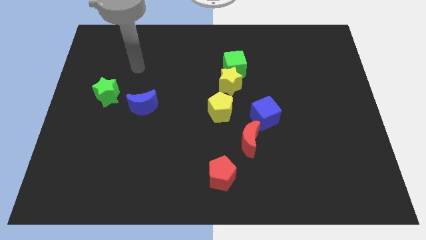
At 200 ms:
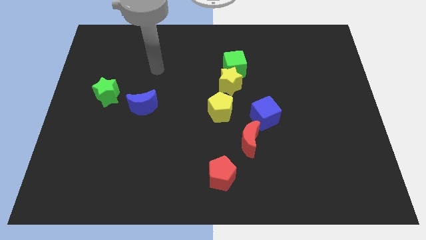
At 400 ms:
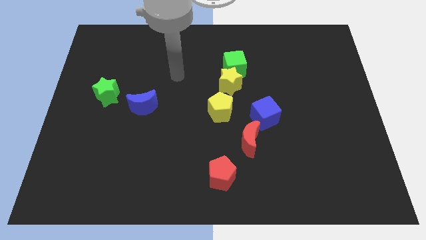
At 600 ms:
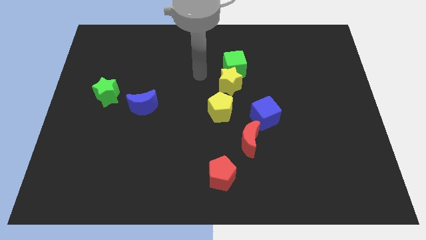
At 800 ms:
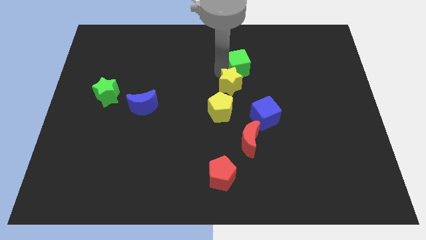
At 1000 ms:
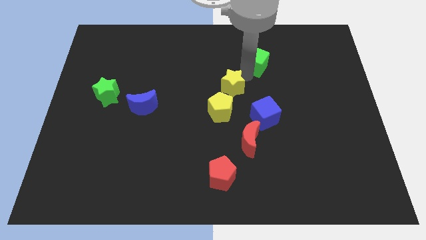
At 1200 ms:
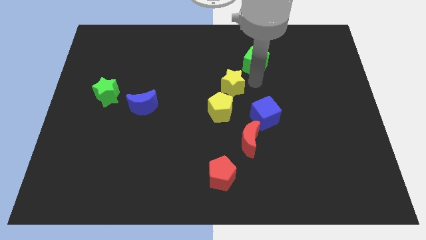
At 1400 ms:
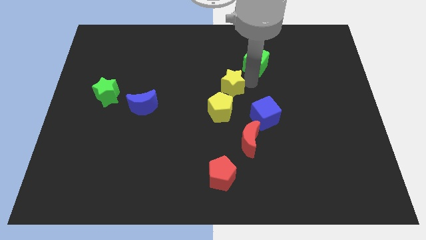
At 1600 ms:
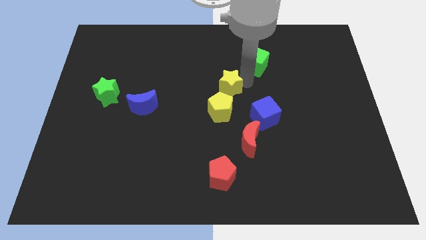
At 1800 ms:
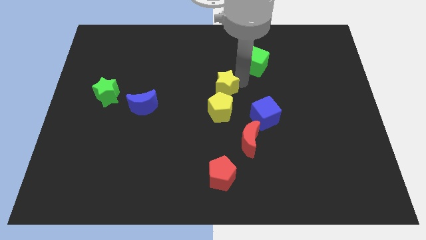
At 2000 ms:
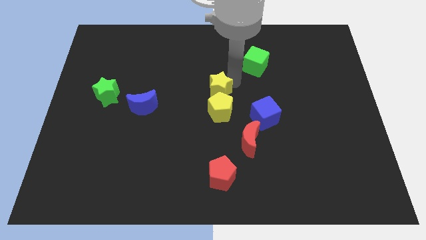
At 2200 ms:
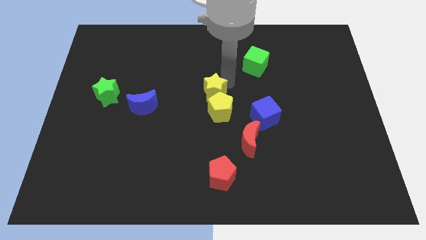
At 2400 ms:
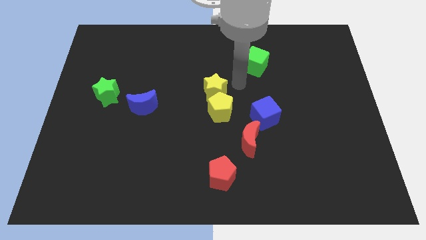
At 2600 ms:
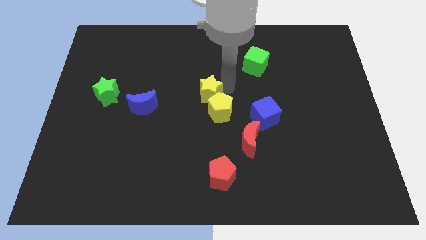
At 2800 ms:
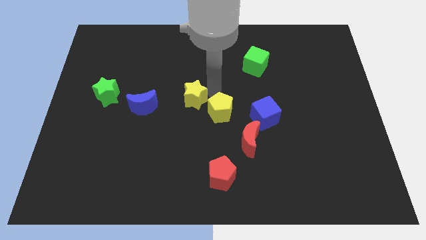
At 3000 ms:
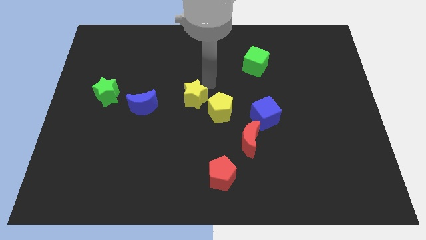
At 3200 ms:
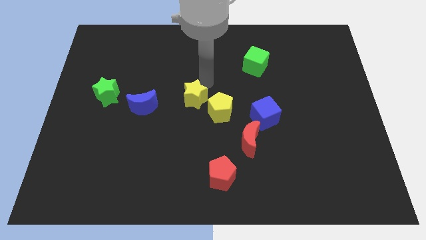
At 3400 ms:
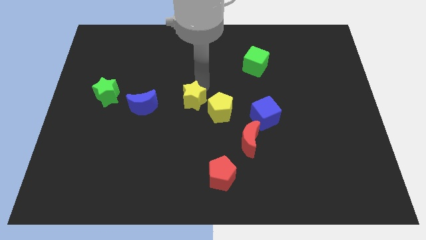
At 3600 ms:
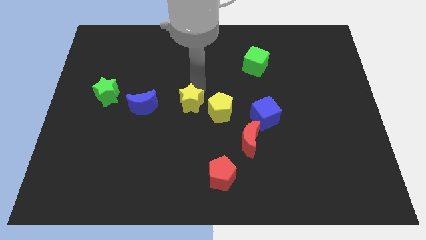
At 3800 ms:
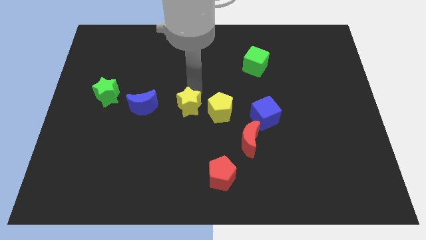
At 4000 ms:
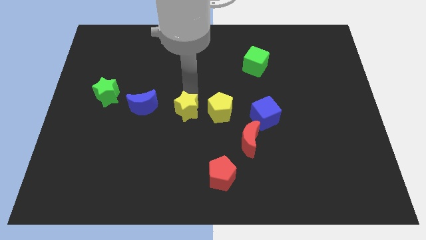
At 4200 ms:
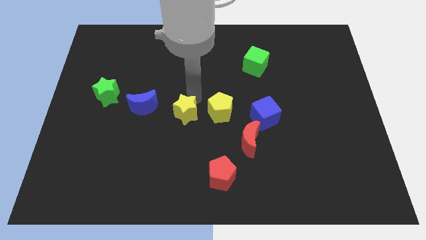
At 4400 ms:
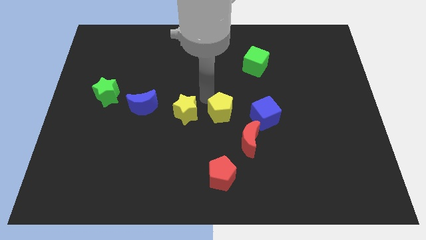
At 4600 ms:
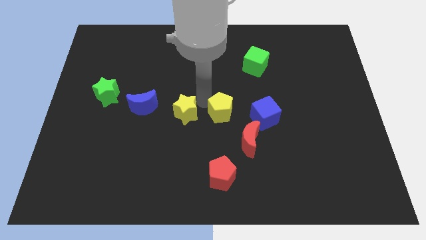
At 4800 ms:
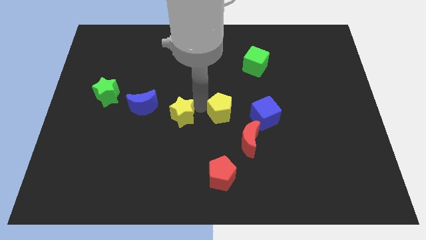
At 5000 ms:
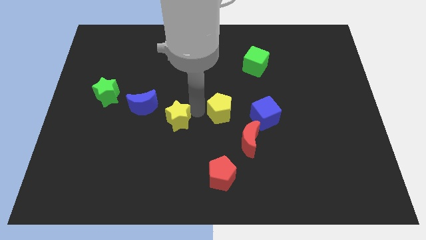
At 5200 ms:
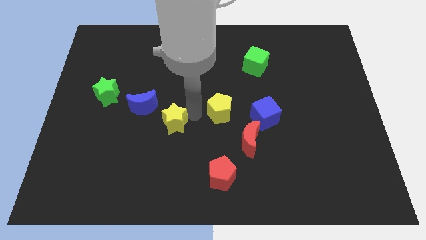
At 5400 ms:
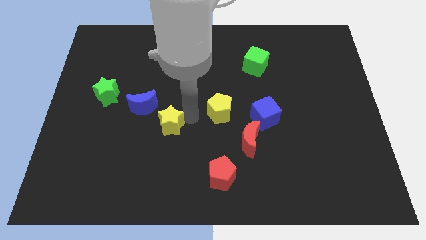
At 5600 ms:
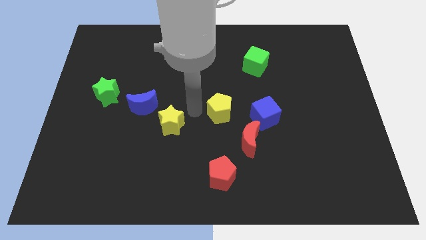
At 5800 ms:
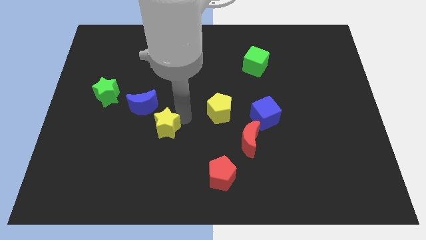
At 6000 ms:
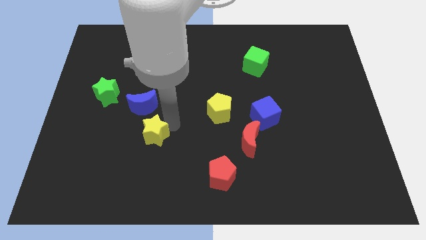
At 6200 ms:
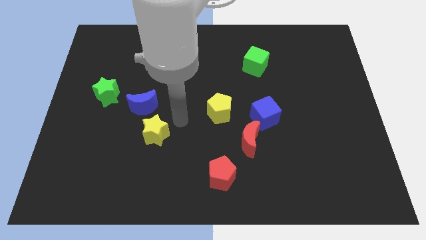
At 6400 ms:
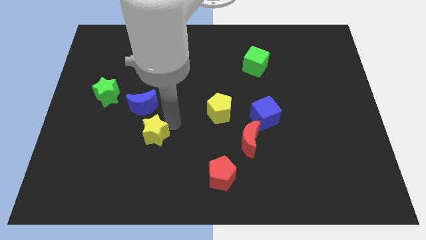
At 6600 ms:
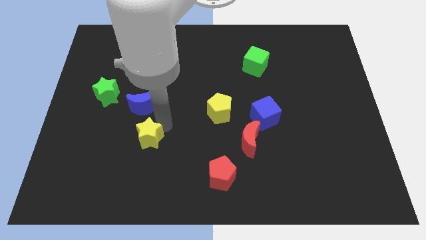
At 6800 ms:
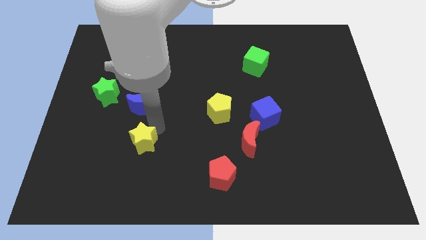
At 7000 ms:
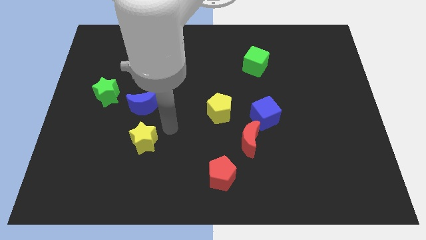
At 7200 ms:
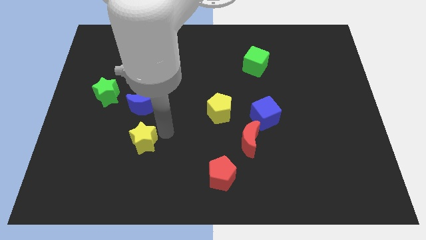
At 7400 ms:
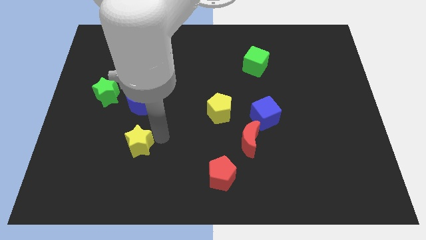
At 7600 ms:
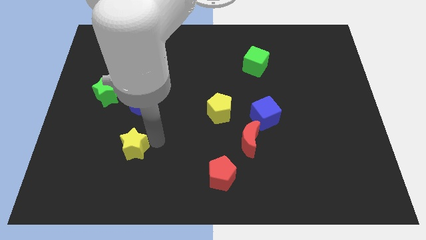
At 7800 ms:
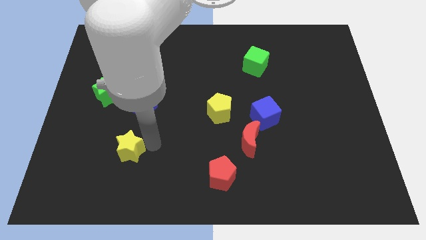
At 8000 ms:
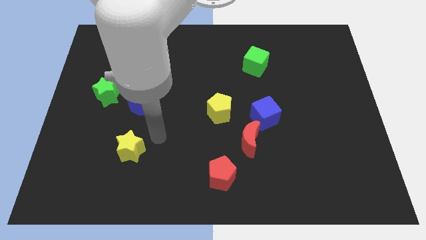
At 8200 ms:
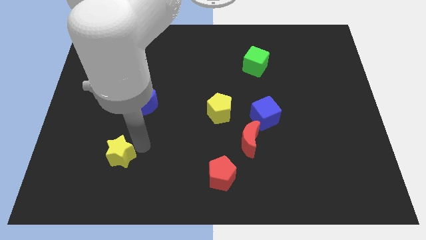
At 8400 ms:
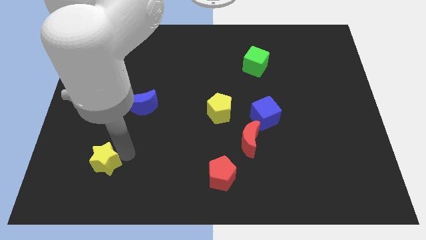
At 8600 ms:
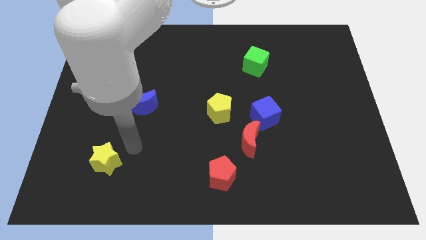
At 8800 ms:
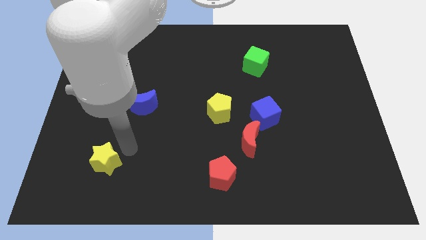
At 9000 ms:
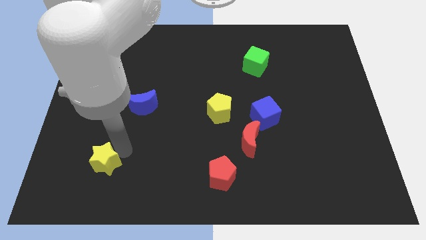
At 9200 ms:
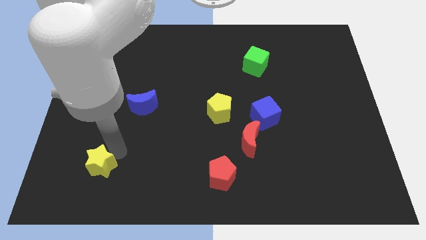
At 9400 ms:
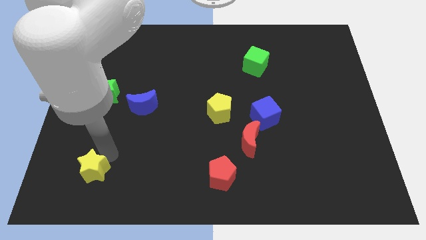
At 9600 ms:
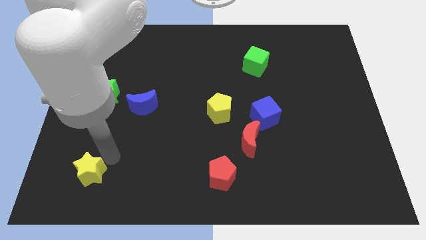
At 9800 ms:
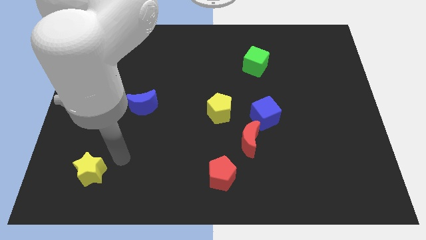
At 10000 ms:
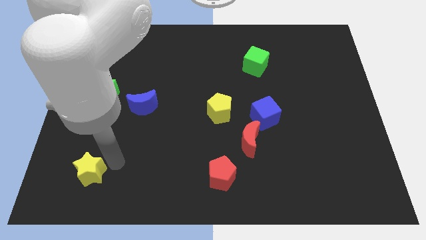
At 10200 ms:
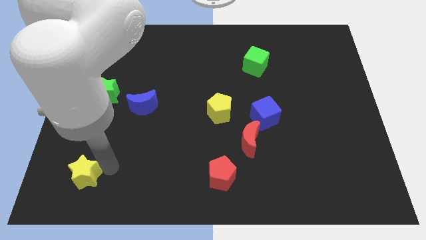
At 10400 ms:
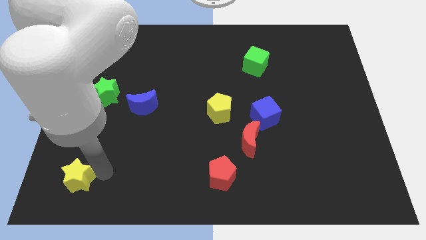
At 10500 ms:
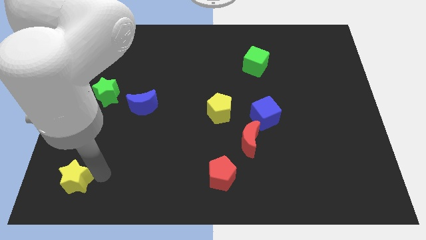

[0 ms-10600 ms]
move the yellow star to the lower left corner

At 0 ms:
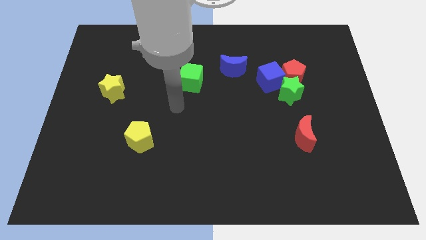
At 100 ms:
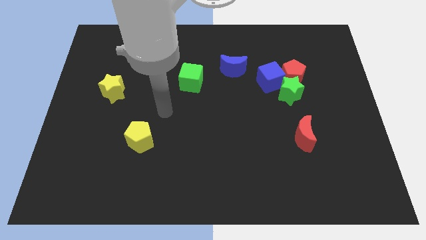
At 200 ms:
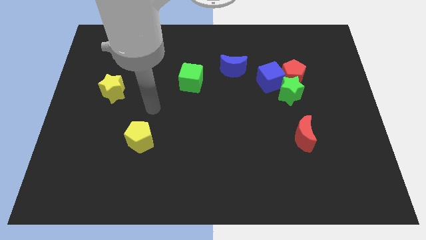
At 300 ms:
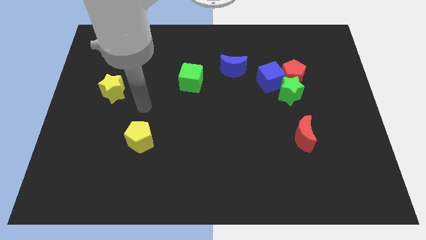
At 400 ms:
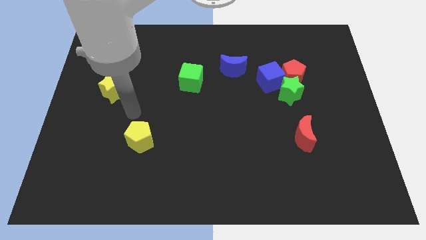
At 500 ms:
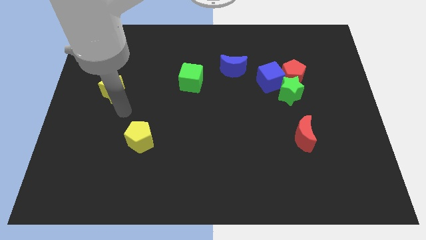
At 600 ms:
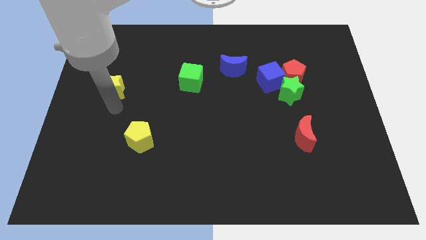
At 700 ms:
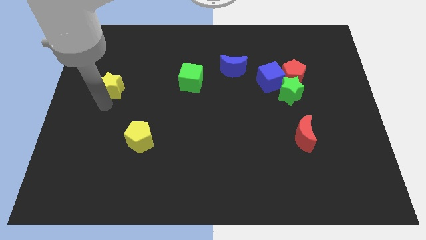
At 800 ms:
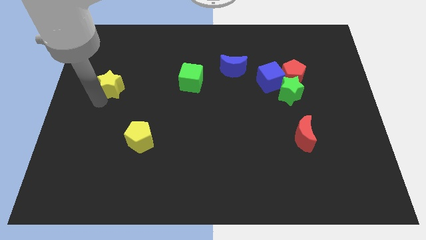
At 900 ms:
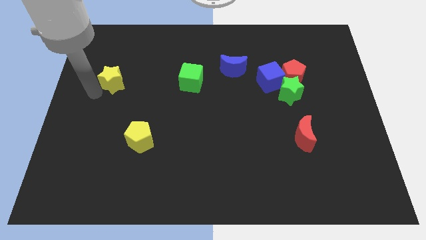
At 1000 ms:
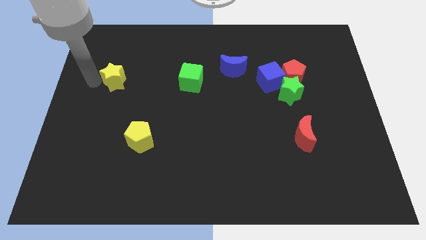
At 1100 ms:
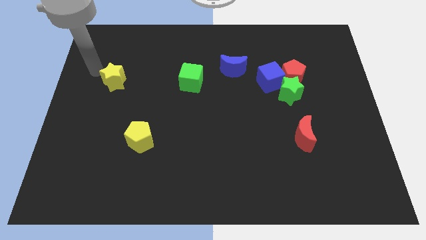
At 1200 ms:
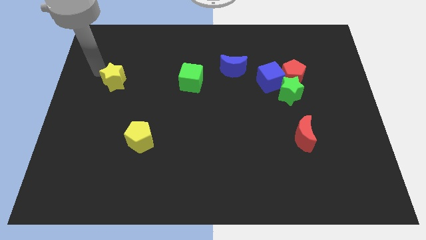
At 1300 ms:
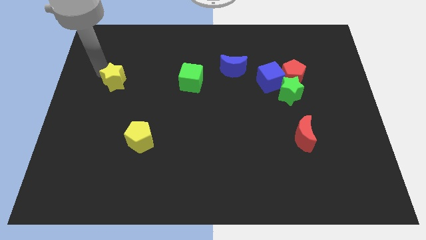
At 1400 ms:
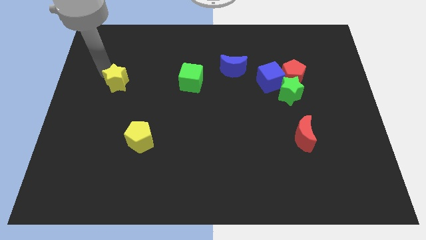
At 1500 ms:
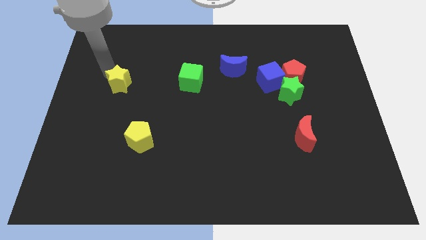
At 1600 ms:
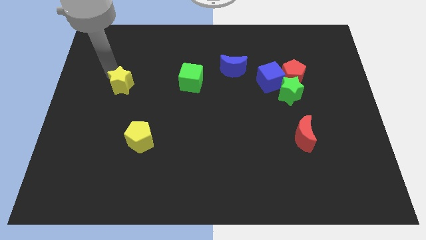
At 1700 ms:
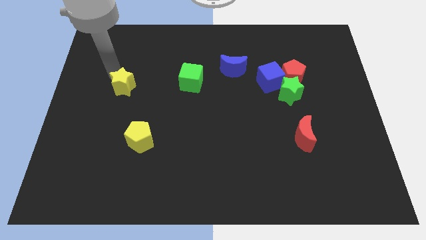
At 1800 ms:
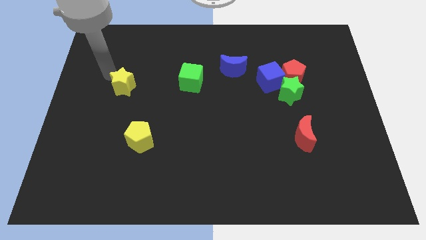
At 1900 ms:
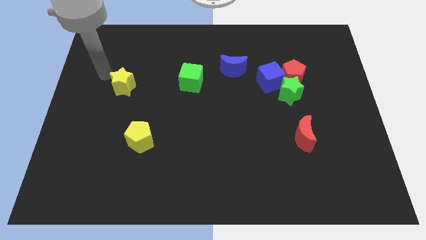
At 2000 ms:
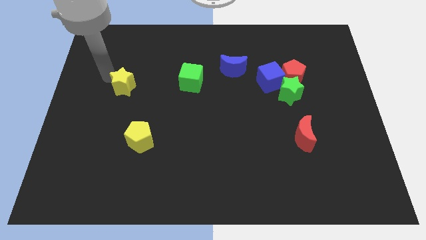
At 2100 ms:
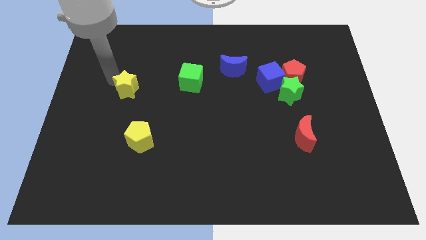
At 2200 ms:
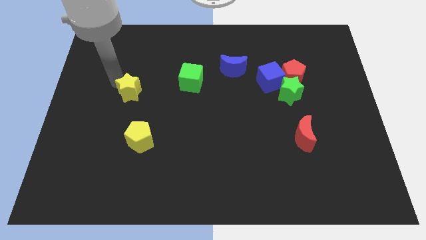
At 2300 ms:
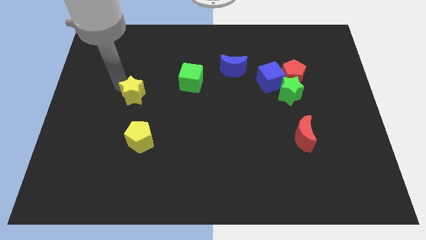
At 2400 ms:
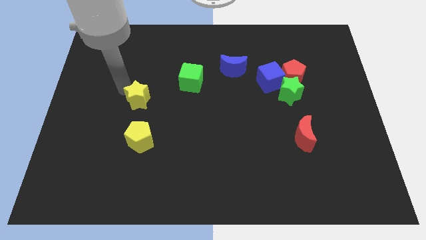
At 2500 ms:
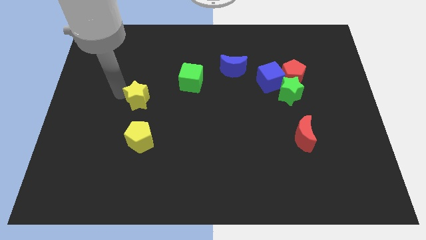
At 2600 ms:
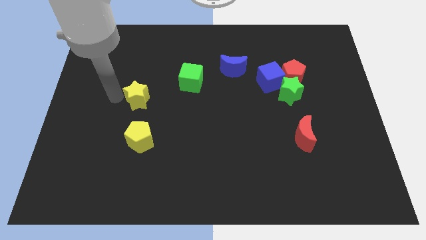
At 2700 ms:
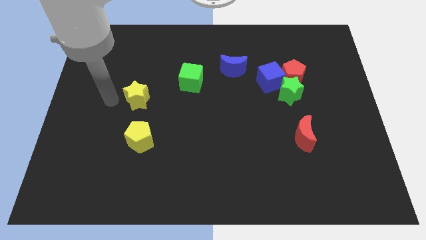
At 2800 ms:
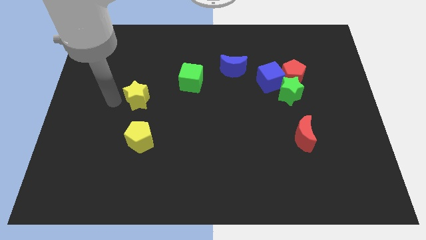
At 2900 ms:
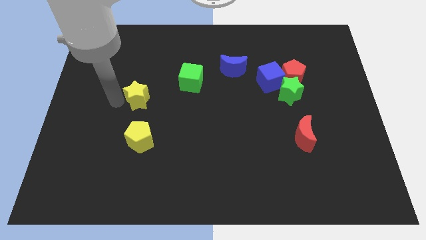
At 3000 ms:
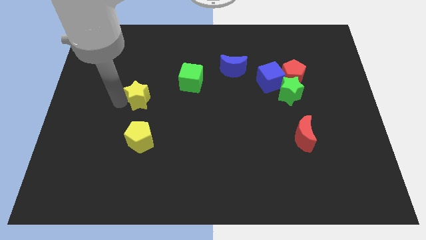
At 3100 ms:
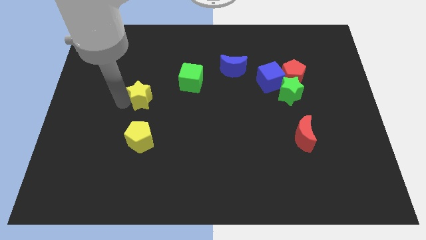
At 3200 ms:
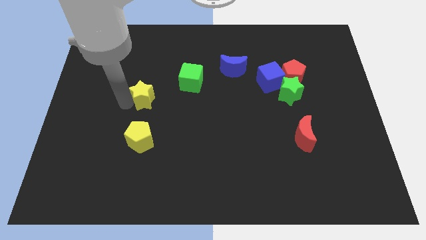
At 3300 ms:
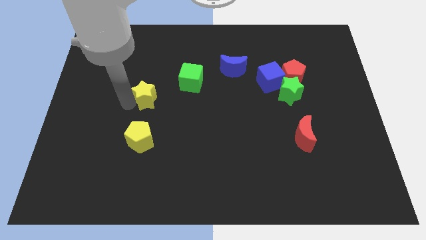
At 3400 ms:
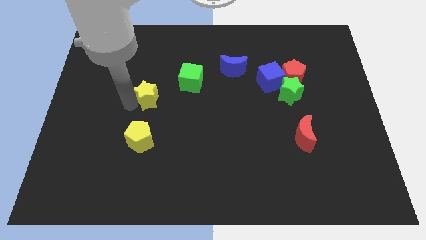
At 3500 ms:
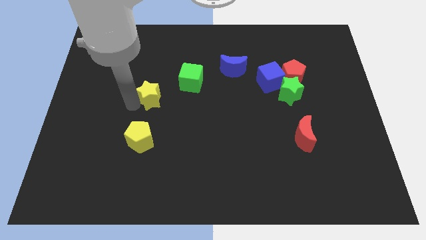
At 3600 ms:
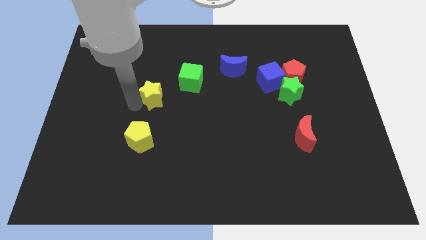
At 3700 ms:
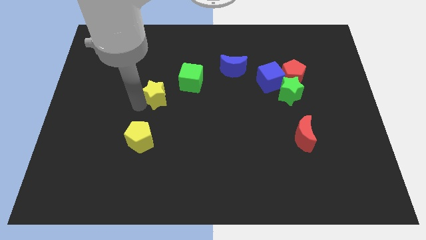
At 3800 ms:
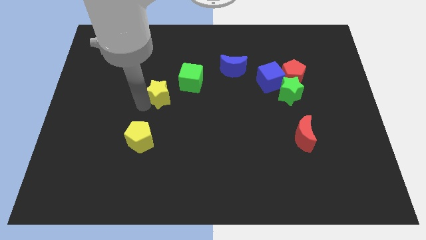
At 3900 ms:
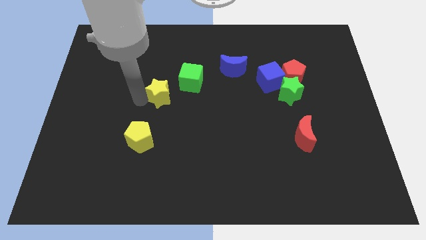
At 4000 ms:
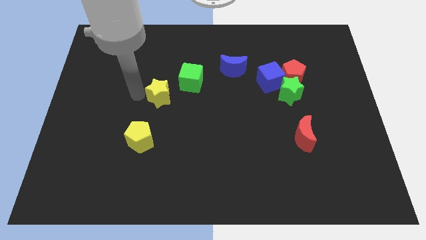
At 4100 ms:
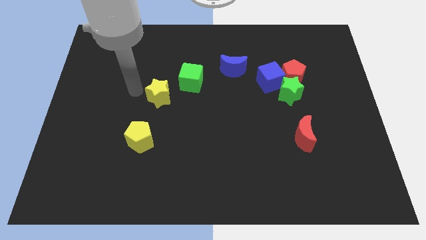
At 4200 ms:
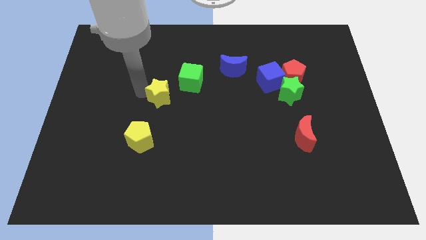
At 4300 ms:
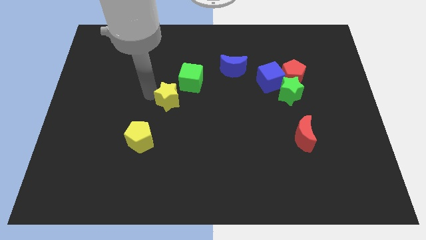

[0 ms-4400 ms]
slide the yellow star to the center of the board
